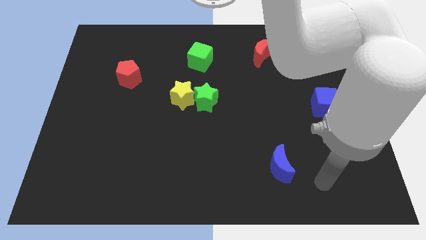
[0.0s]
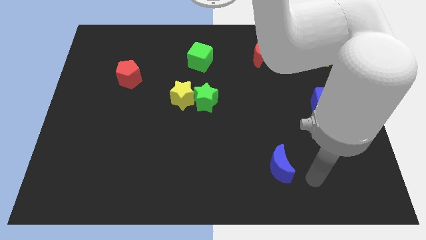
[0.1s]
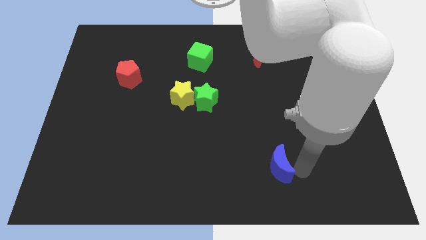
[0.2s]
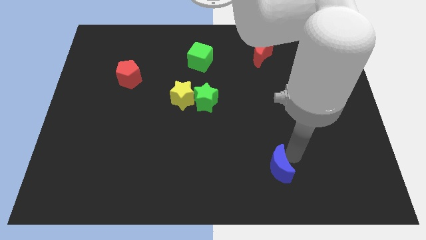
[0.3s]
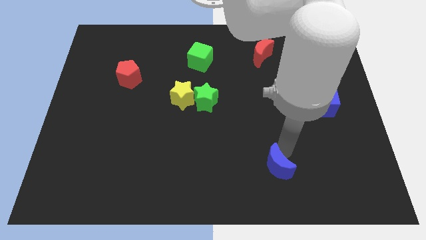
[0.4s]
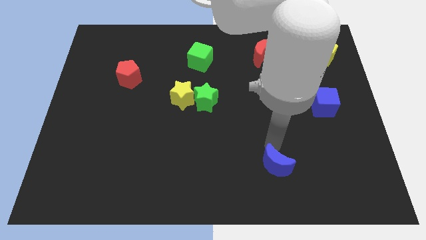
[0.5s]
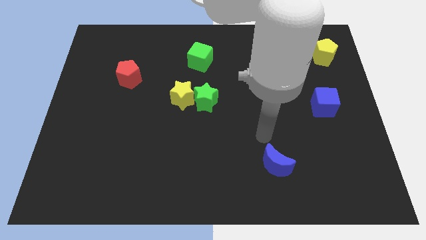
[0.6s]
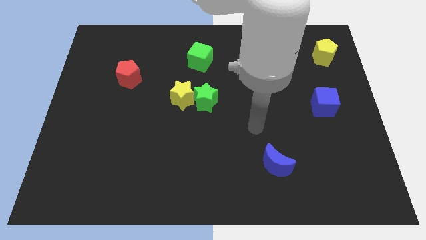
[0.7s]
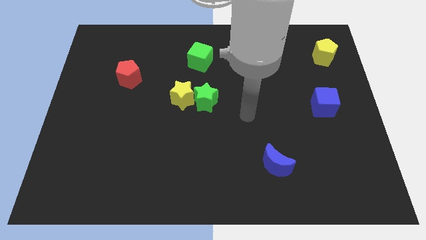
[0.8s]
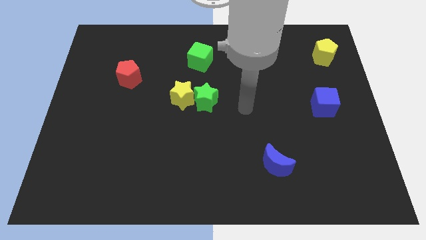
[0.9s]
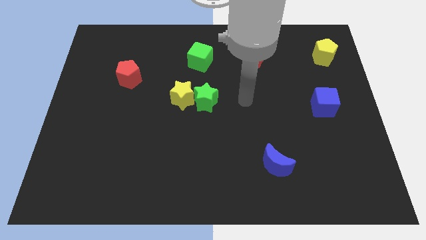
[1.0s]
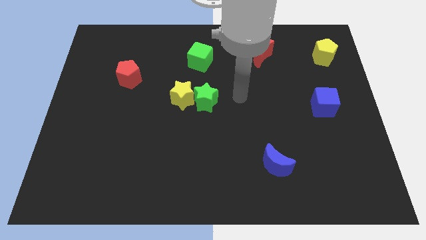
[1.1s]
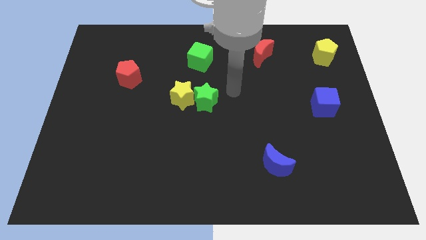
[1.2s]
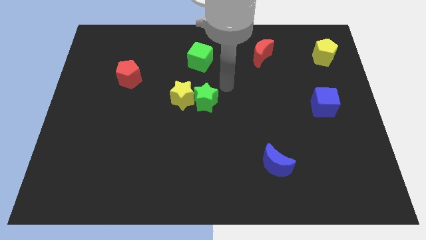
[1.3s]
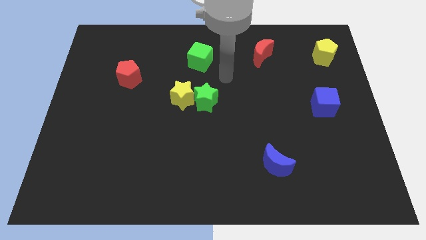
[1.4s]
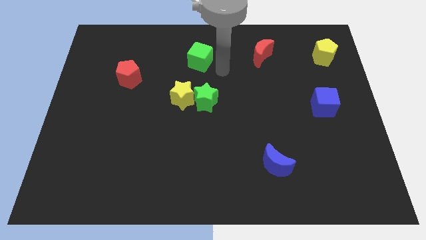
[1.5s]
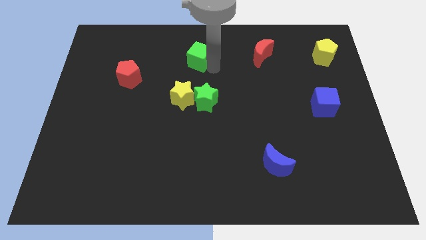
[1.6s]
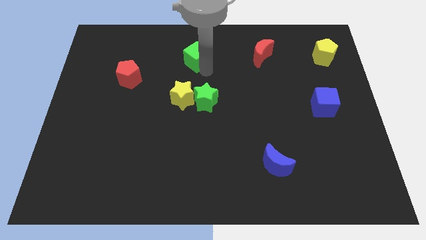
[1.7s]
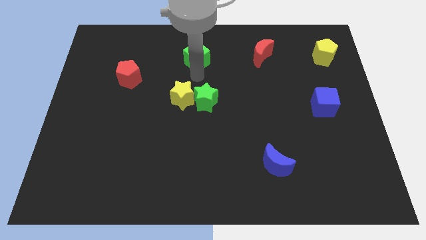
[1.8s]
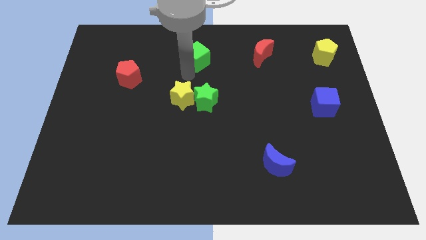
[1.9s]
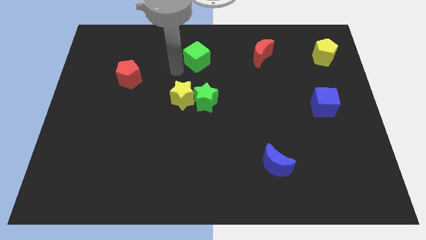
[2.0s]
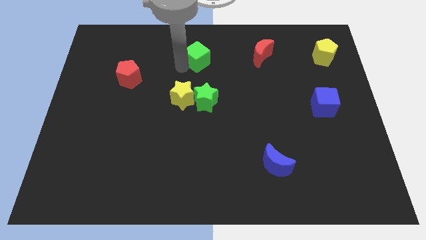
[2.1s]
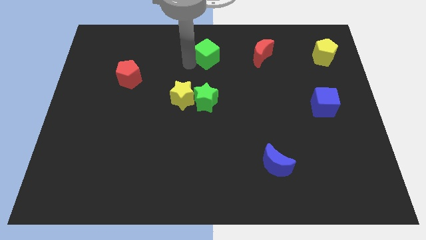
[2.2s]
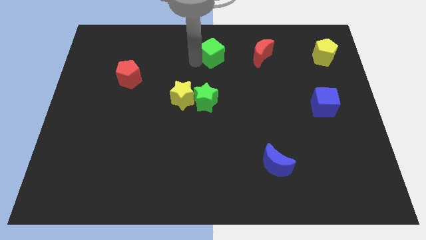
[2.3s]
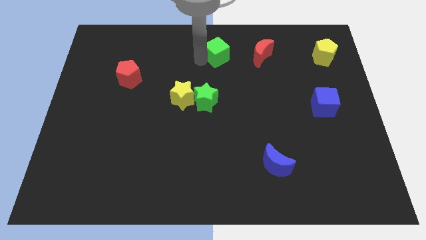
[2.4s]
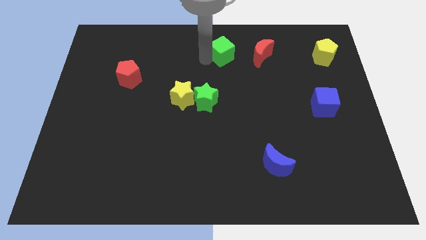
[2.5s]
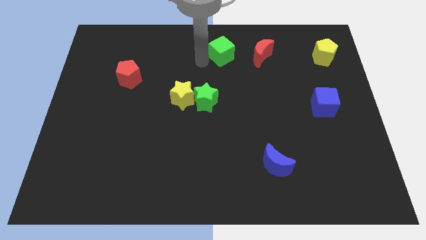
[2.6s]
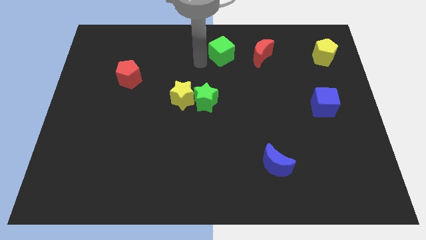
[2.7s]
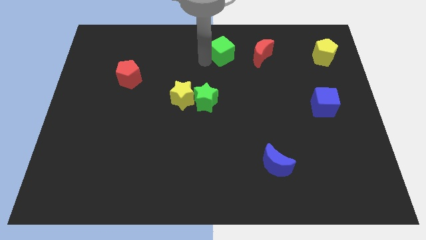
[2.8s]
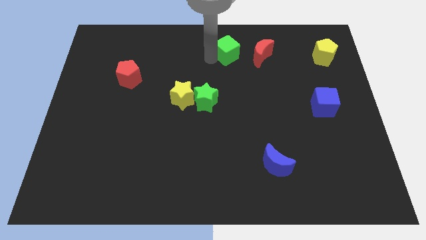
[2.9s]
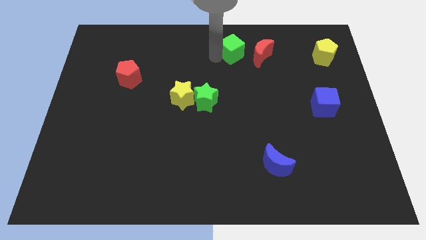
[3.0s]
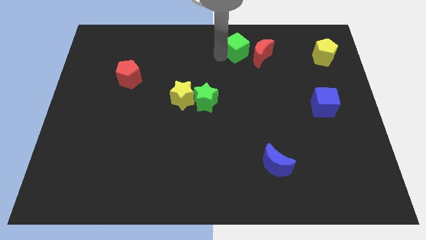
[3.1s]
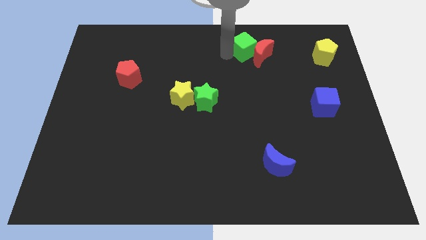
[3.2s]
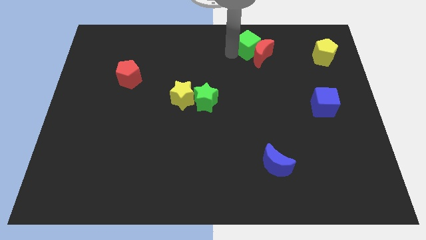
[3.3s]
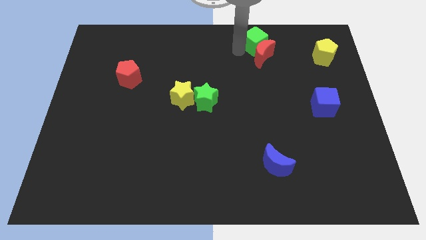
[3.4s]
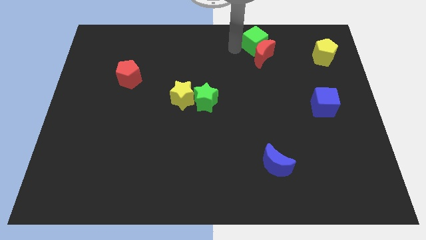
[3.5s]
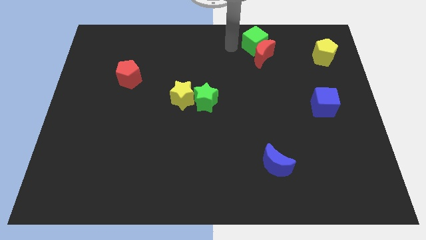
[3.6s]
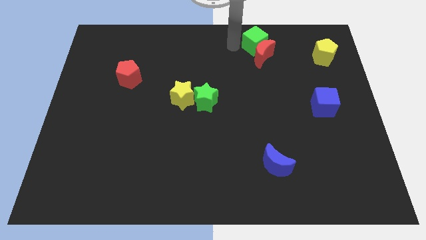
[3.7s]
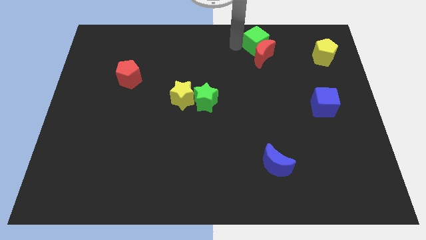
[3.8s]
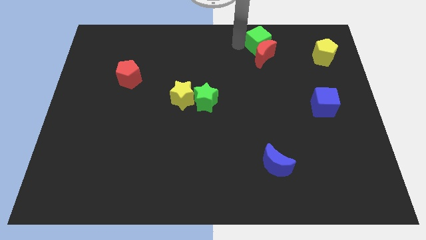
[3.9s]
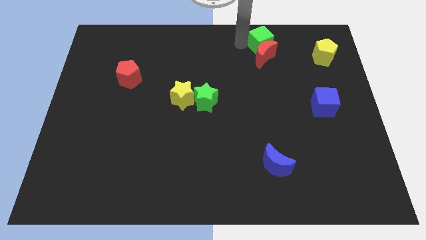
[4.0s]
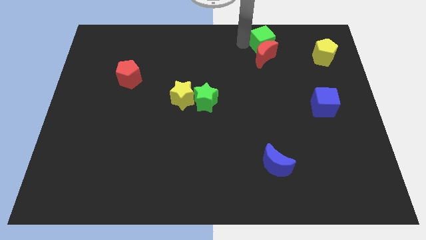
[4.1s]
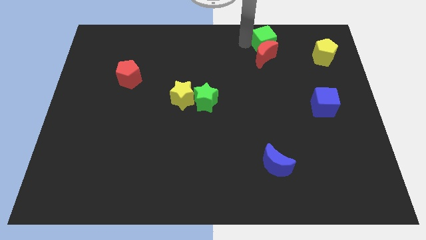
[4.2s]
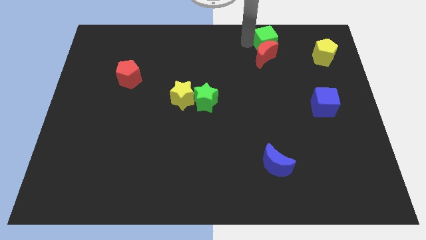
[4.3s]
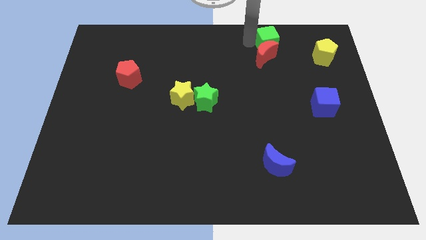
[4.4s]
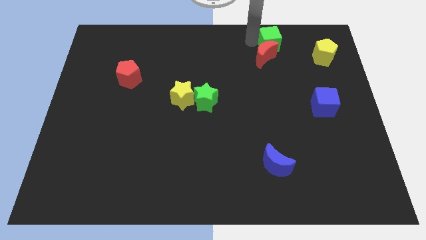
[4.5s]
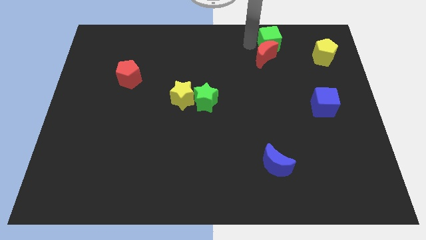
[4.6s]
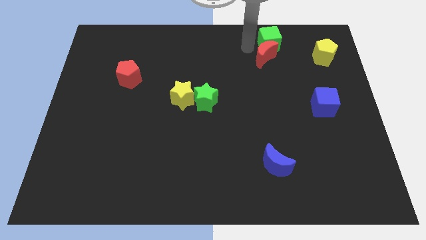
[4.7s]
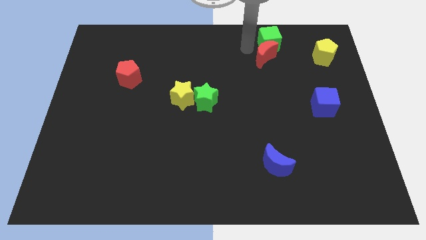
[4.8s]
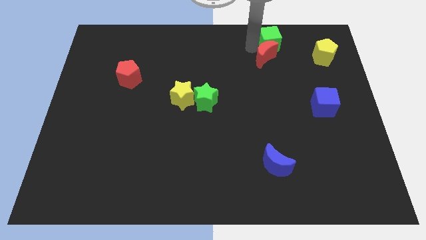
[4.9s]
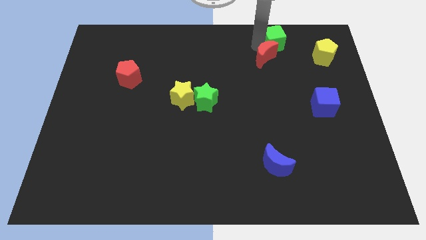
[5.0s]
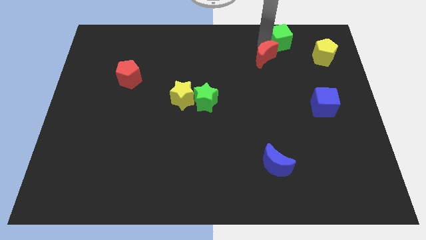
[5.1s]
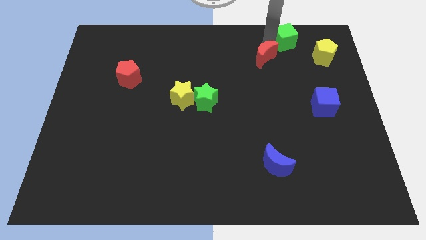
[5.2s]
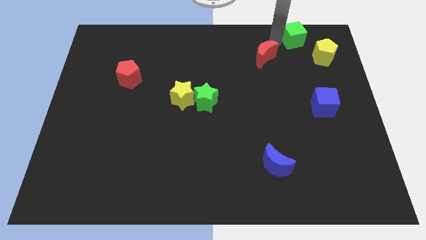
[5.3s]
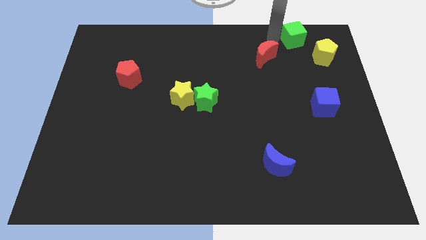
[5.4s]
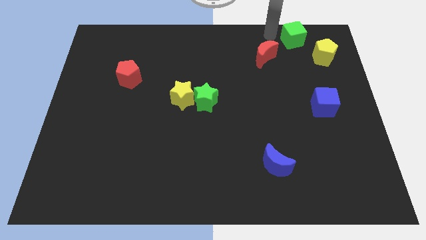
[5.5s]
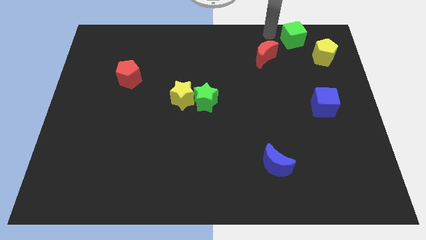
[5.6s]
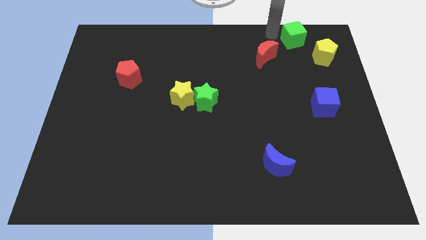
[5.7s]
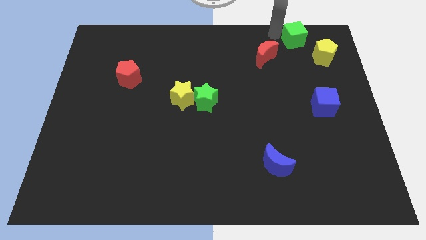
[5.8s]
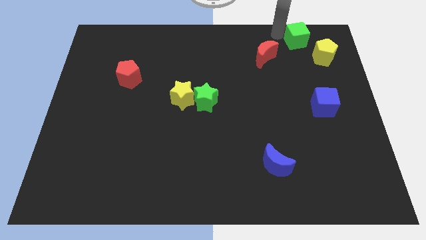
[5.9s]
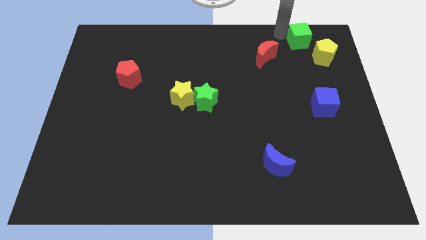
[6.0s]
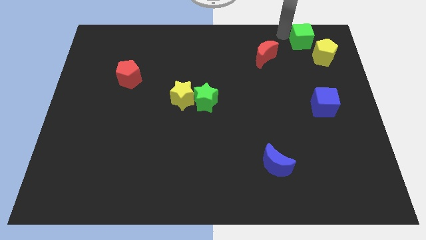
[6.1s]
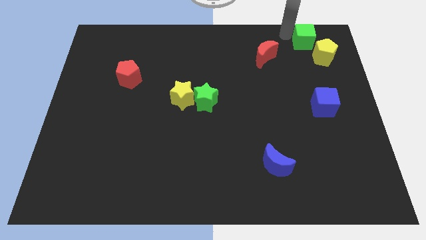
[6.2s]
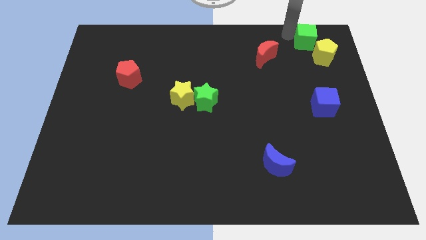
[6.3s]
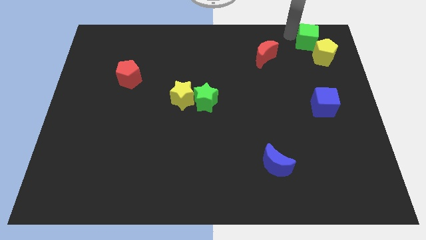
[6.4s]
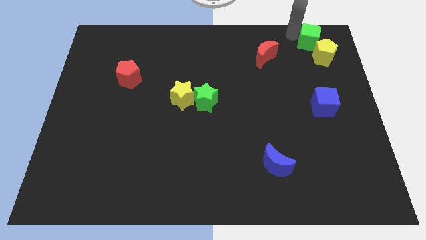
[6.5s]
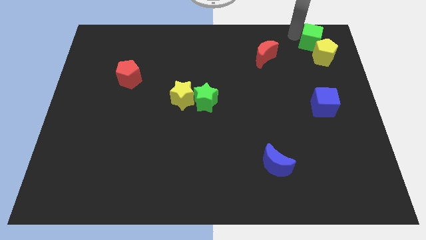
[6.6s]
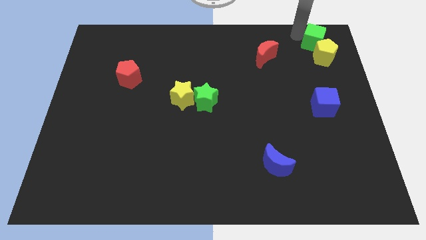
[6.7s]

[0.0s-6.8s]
move the green cube to the top right corner
